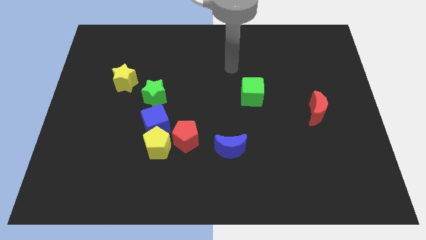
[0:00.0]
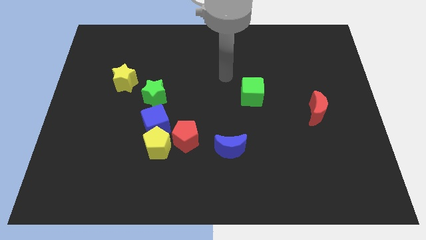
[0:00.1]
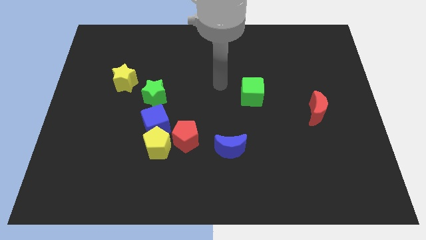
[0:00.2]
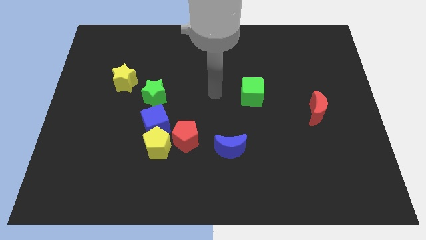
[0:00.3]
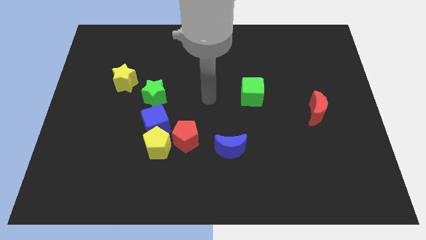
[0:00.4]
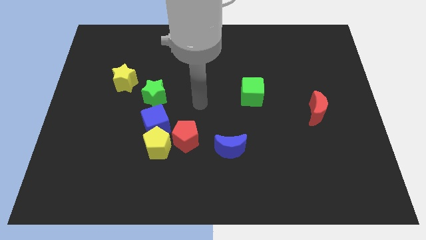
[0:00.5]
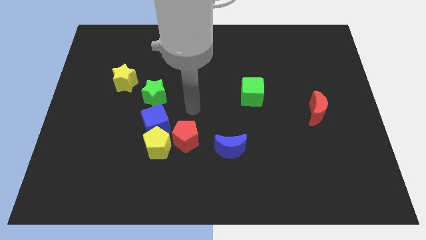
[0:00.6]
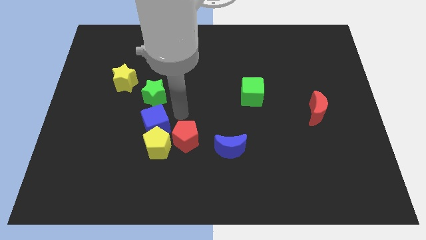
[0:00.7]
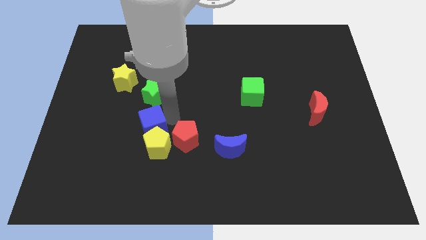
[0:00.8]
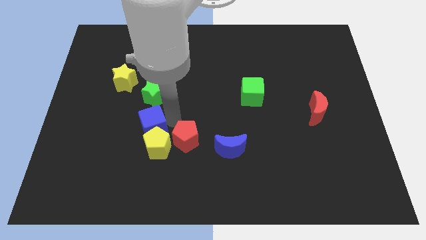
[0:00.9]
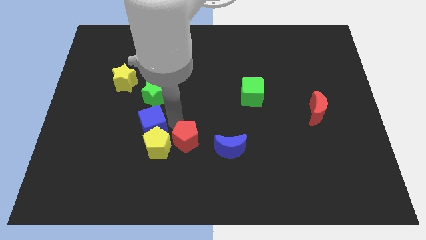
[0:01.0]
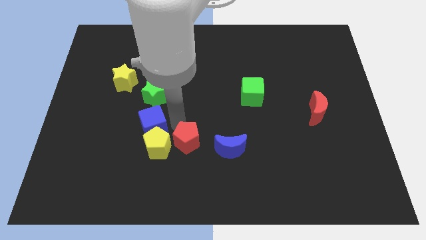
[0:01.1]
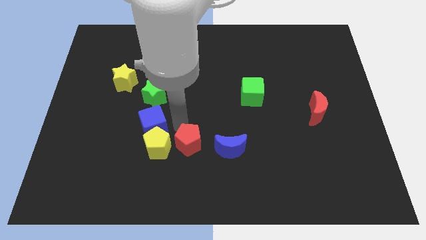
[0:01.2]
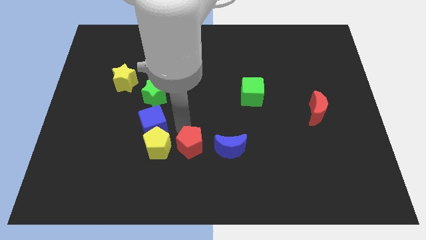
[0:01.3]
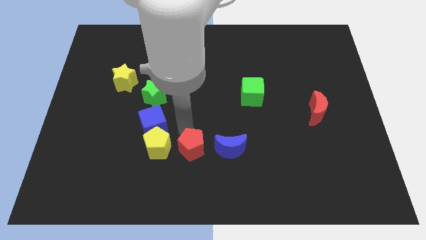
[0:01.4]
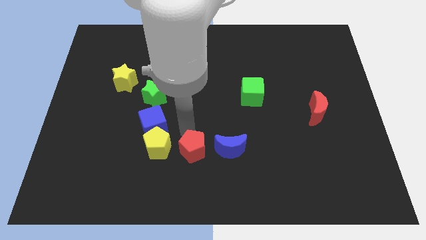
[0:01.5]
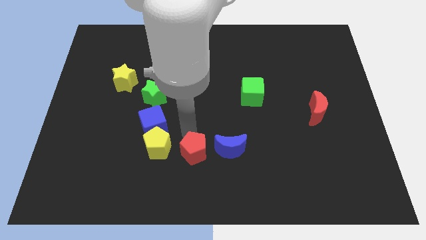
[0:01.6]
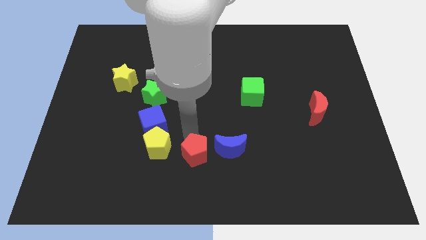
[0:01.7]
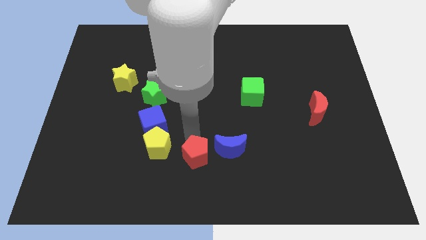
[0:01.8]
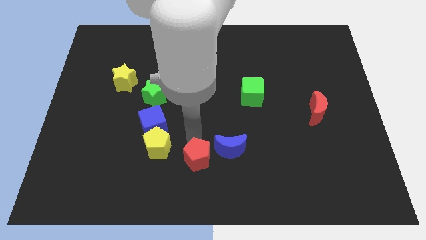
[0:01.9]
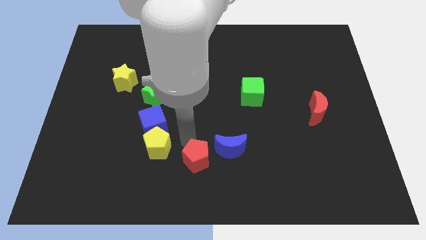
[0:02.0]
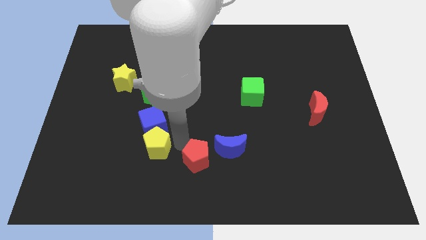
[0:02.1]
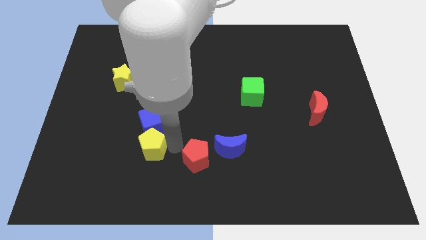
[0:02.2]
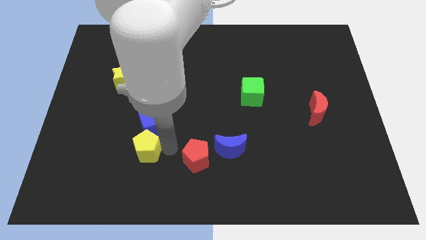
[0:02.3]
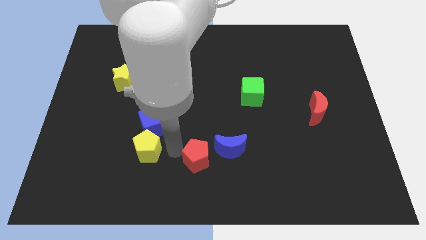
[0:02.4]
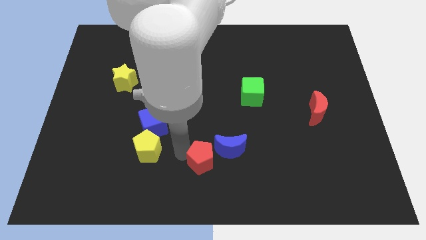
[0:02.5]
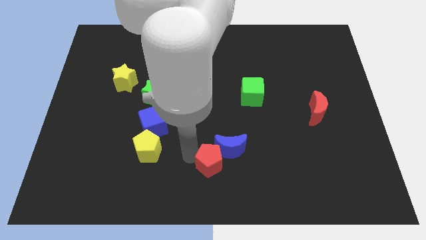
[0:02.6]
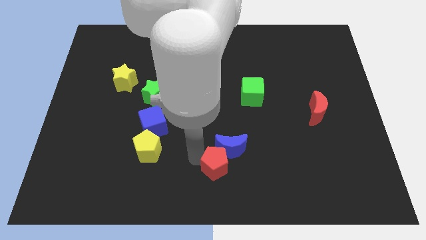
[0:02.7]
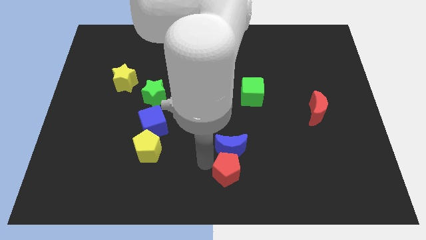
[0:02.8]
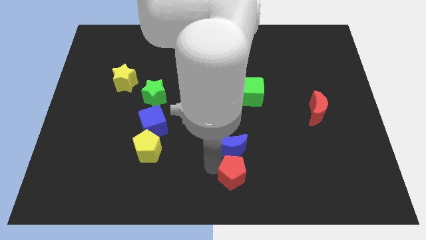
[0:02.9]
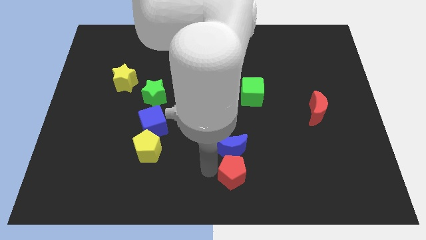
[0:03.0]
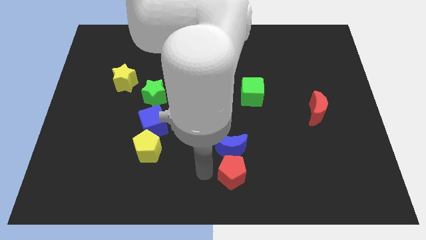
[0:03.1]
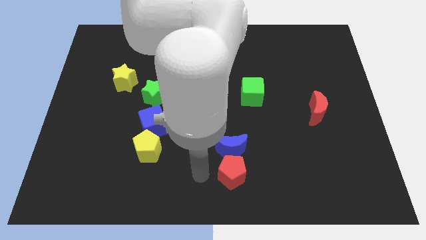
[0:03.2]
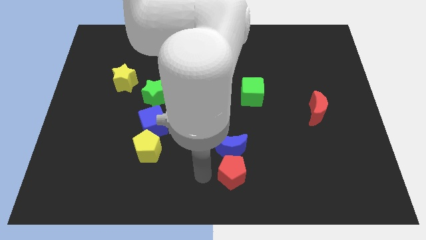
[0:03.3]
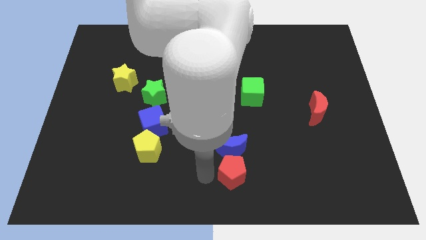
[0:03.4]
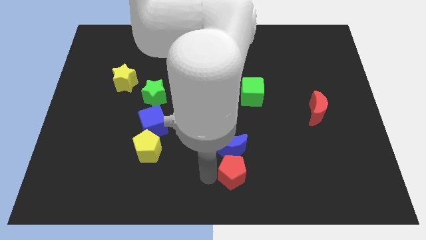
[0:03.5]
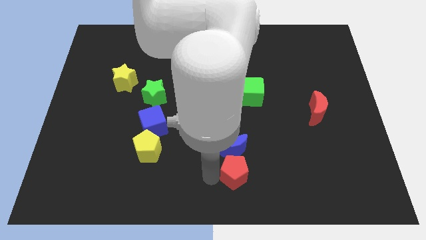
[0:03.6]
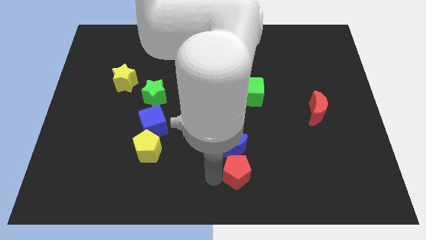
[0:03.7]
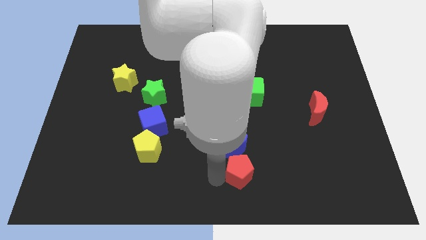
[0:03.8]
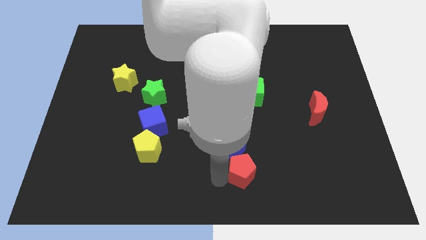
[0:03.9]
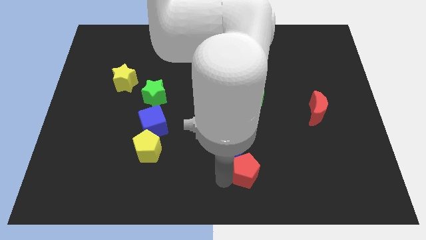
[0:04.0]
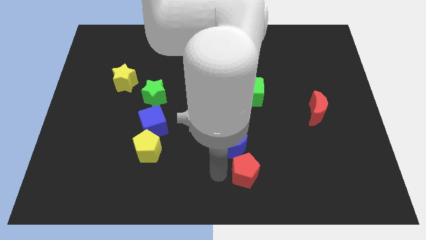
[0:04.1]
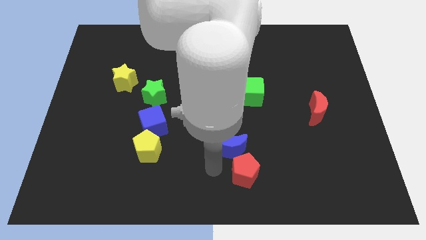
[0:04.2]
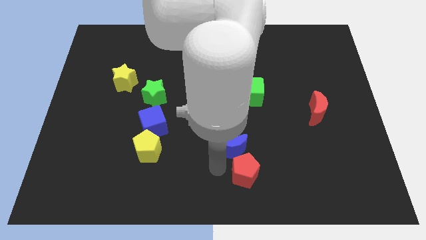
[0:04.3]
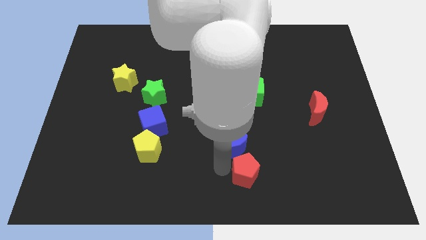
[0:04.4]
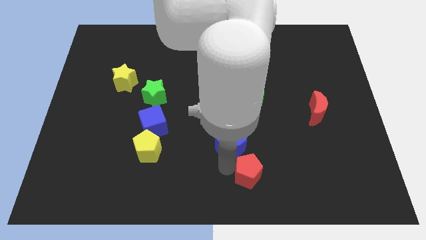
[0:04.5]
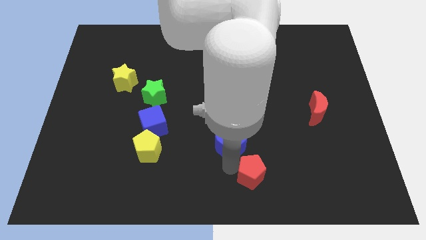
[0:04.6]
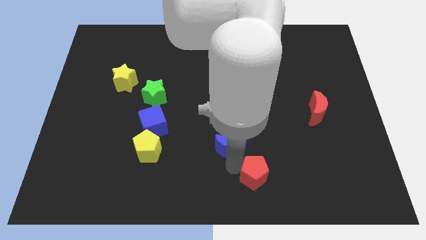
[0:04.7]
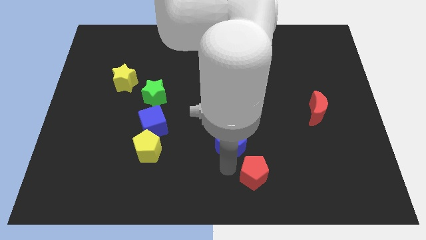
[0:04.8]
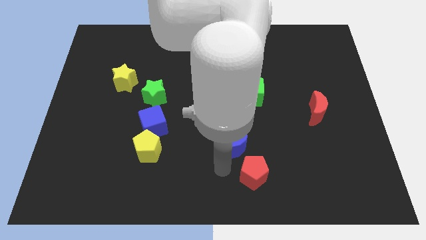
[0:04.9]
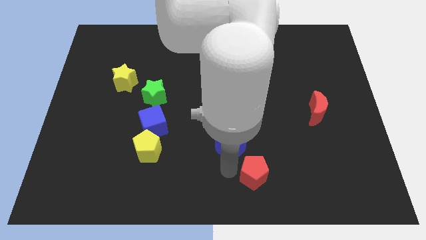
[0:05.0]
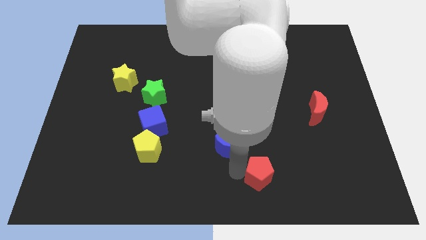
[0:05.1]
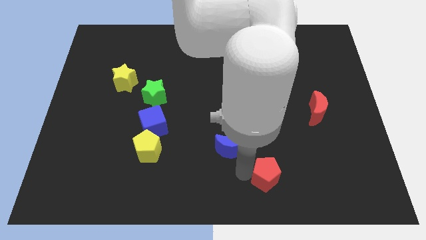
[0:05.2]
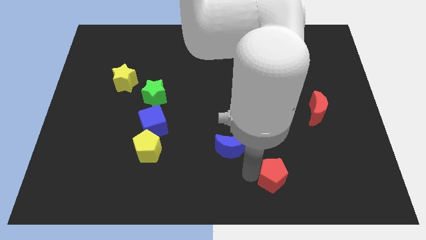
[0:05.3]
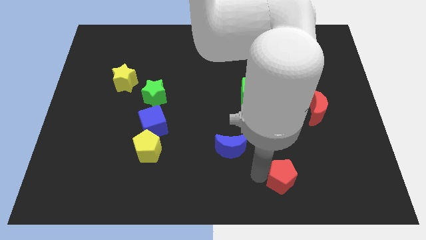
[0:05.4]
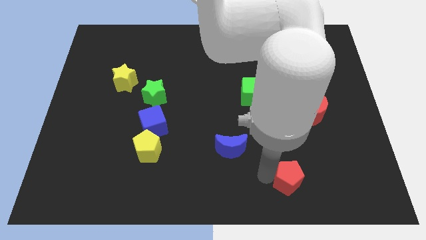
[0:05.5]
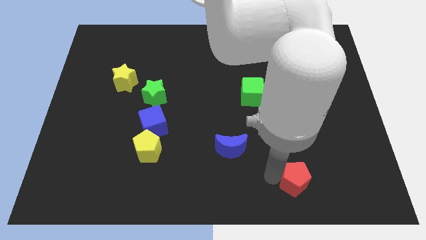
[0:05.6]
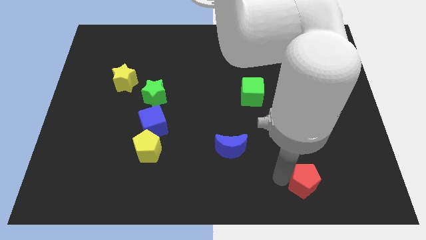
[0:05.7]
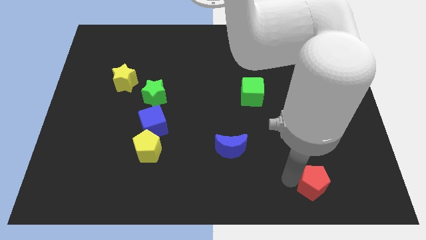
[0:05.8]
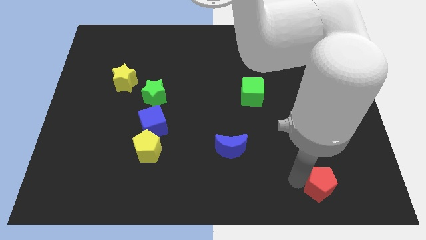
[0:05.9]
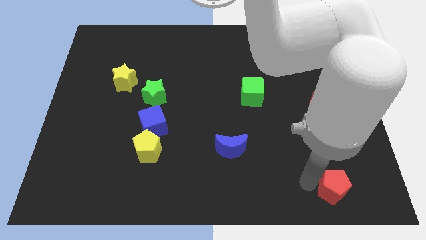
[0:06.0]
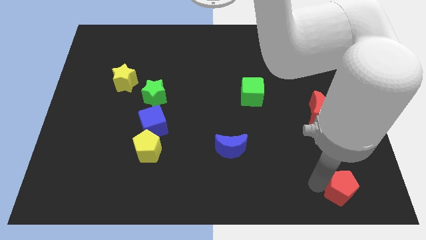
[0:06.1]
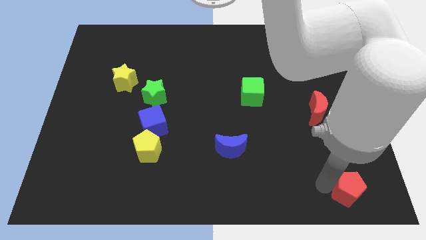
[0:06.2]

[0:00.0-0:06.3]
put the red pentagon to the bottom right corner

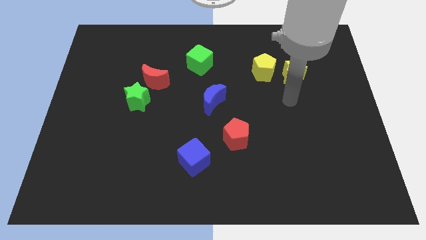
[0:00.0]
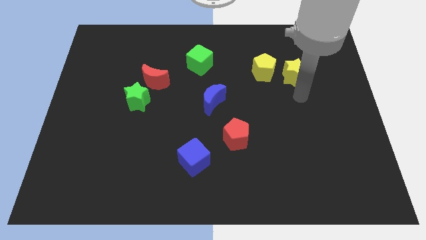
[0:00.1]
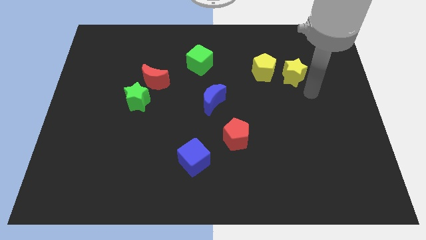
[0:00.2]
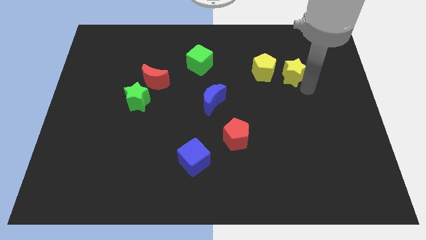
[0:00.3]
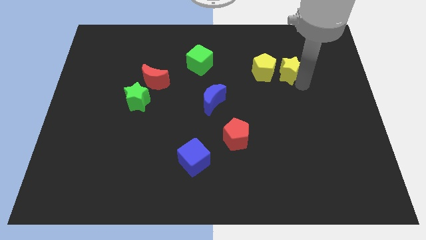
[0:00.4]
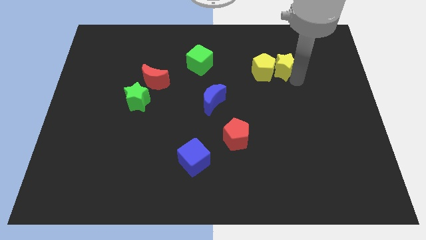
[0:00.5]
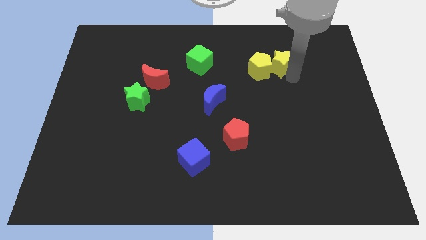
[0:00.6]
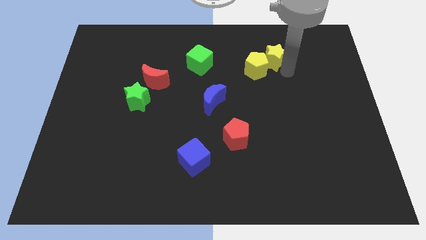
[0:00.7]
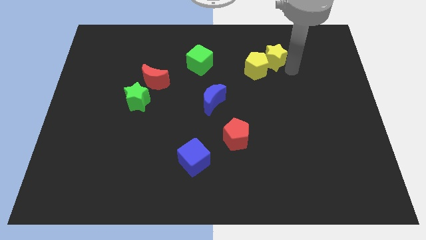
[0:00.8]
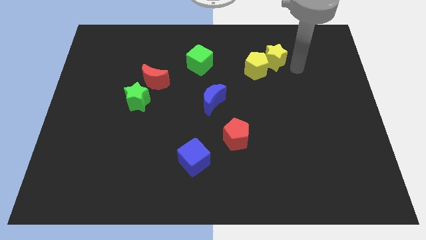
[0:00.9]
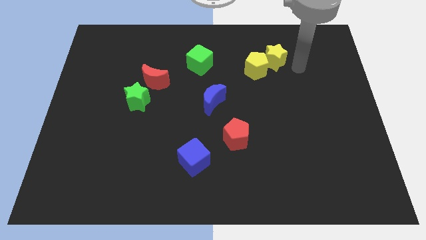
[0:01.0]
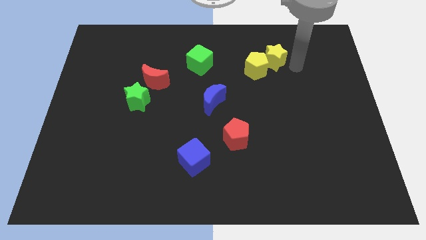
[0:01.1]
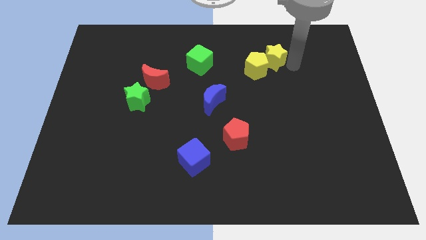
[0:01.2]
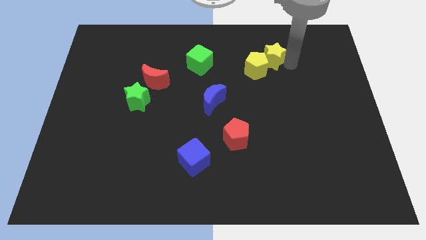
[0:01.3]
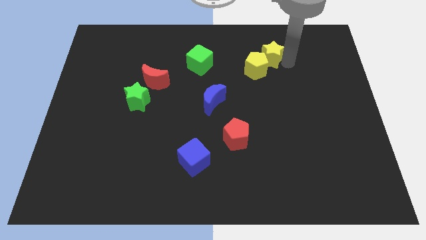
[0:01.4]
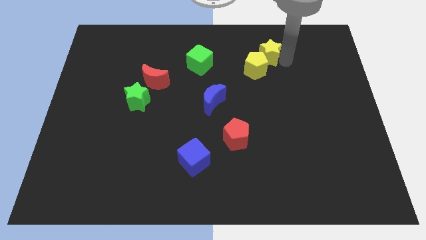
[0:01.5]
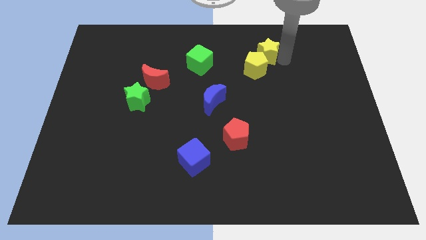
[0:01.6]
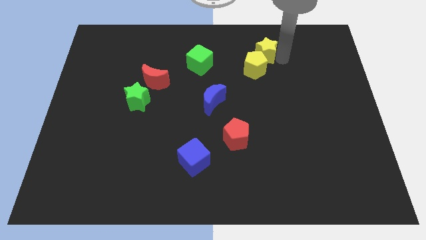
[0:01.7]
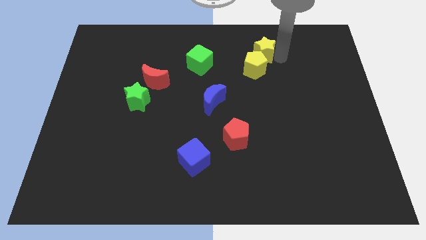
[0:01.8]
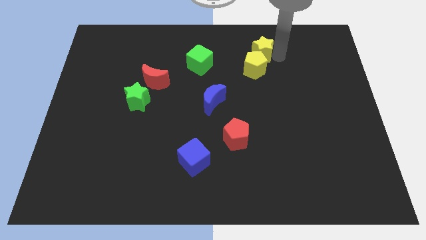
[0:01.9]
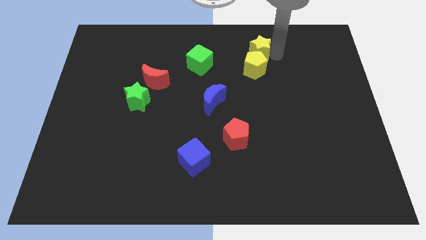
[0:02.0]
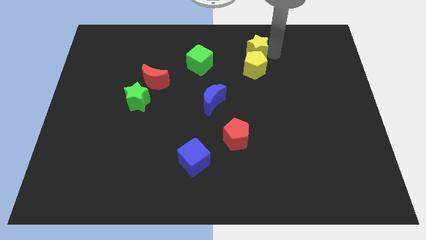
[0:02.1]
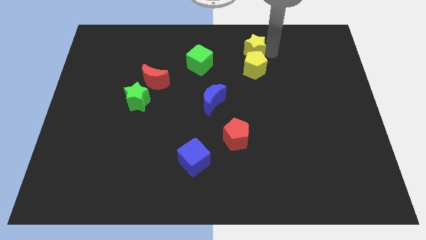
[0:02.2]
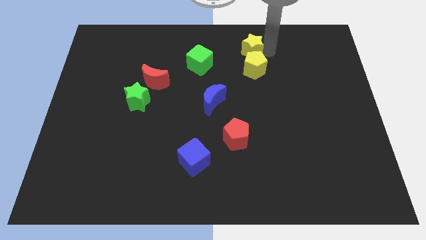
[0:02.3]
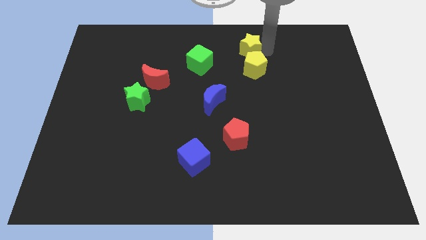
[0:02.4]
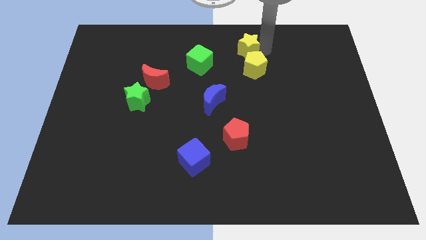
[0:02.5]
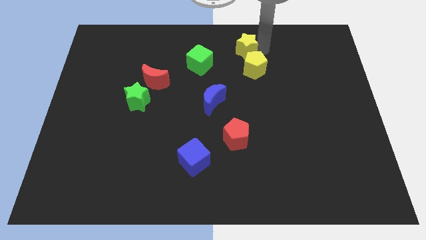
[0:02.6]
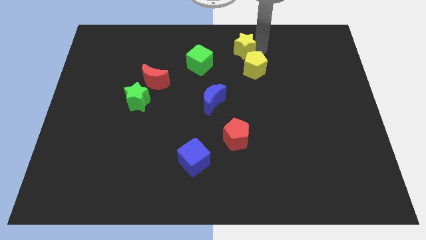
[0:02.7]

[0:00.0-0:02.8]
move the yellow star to the top
